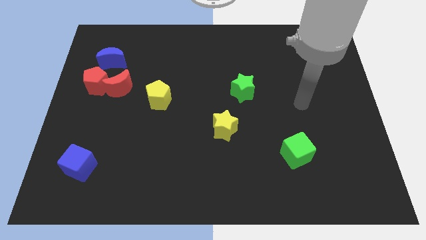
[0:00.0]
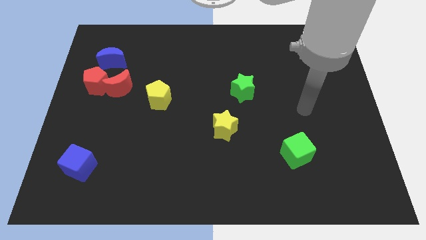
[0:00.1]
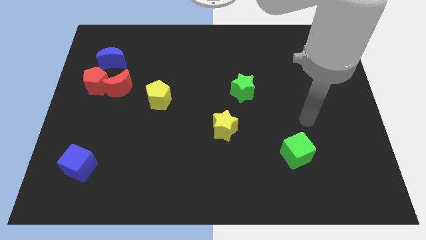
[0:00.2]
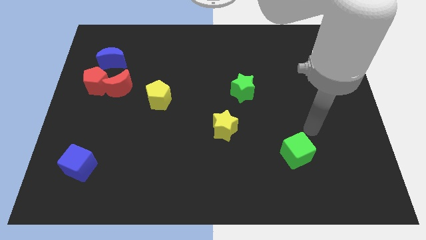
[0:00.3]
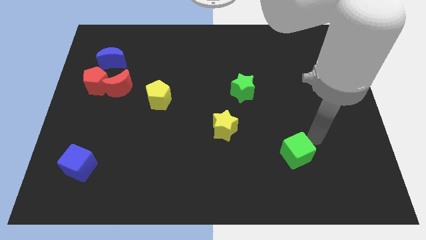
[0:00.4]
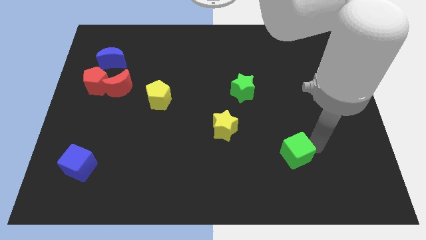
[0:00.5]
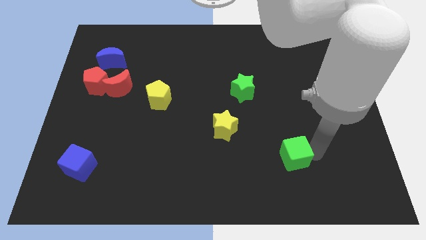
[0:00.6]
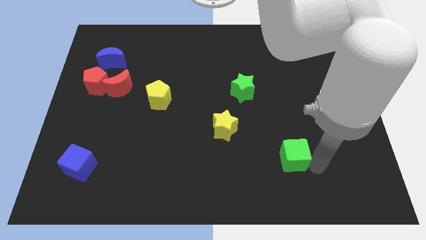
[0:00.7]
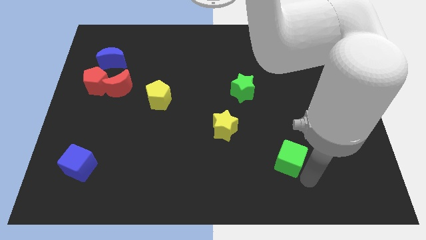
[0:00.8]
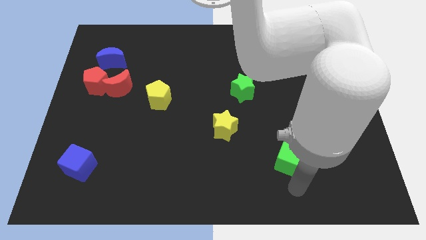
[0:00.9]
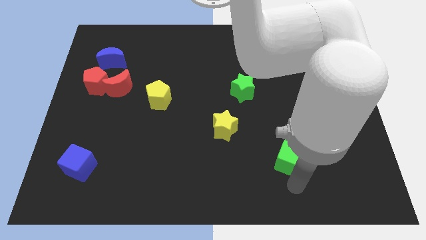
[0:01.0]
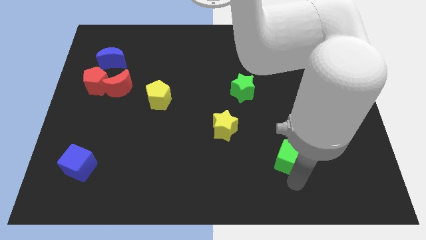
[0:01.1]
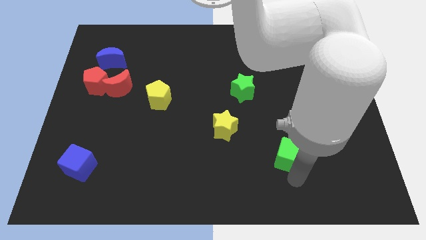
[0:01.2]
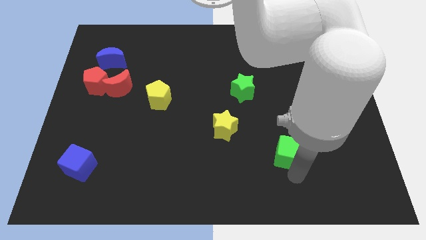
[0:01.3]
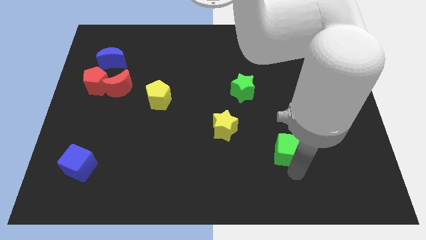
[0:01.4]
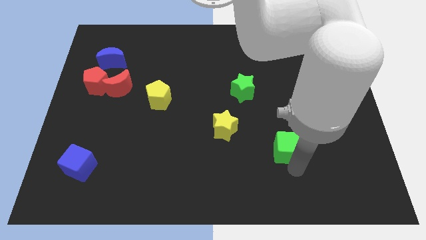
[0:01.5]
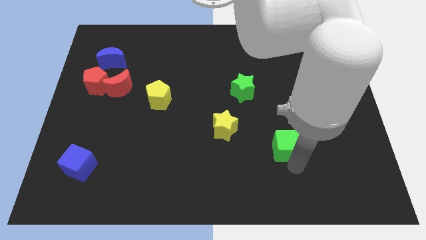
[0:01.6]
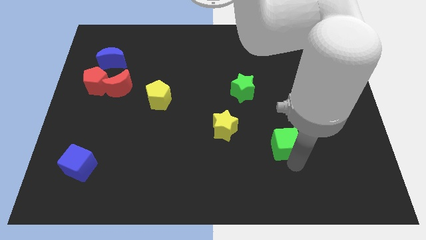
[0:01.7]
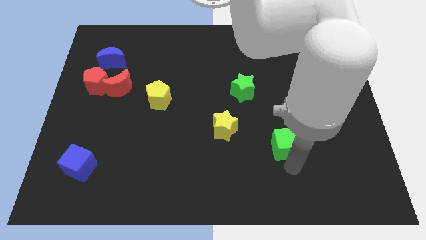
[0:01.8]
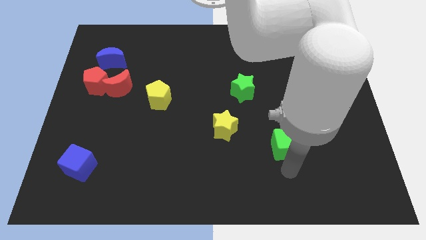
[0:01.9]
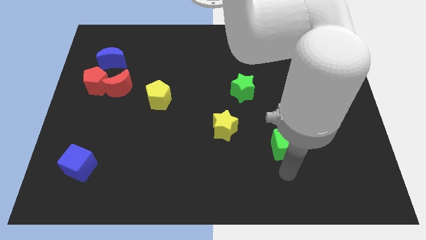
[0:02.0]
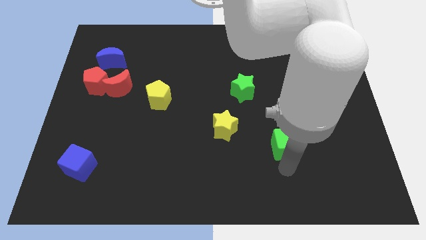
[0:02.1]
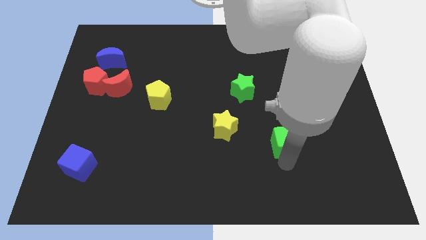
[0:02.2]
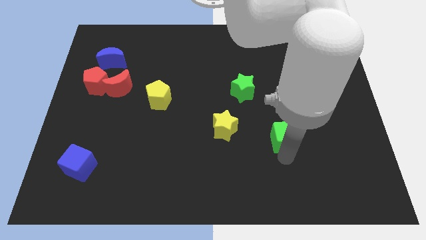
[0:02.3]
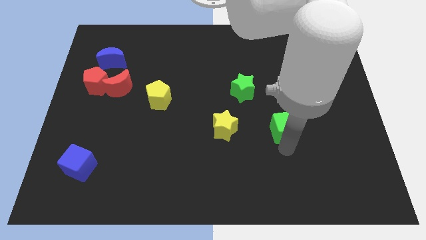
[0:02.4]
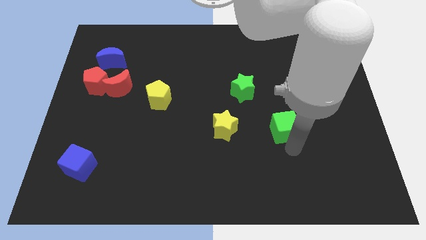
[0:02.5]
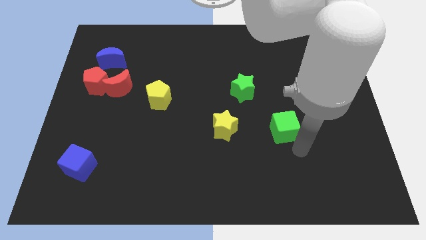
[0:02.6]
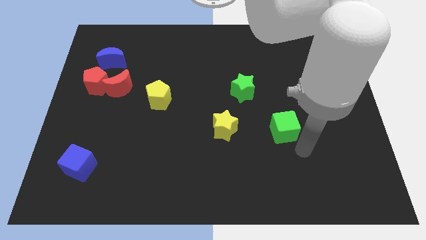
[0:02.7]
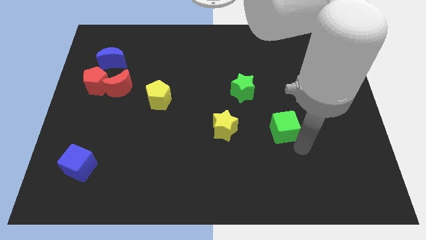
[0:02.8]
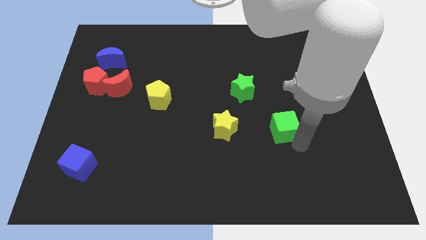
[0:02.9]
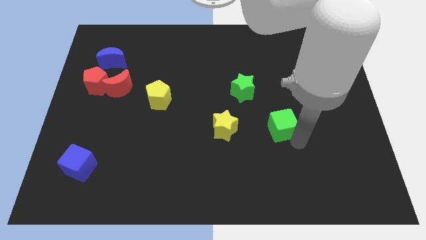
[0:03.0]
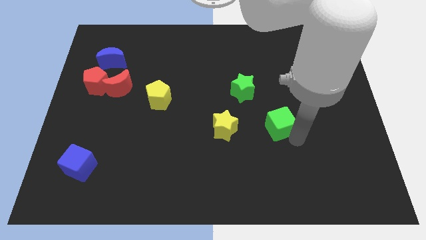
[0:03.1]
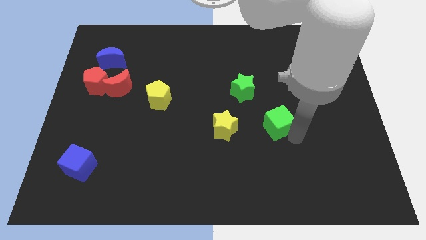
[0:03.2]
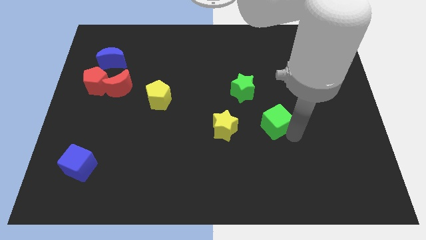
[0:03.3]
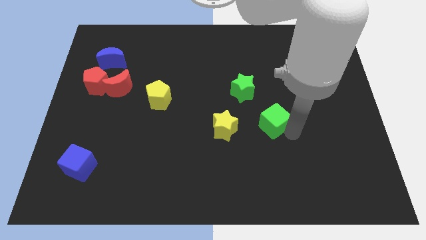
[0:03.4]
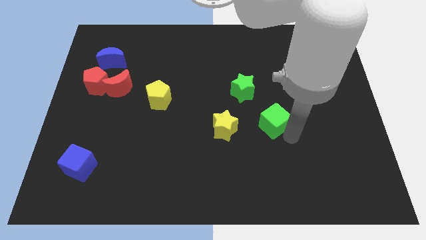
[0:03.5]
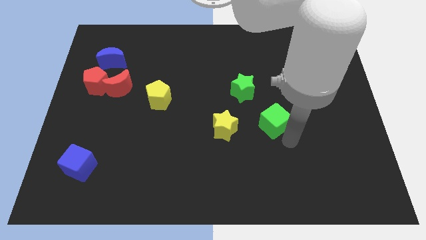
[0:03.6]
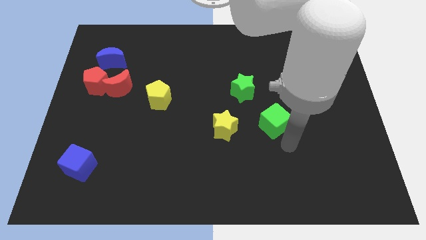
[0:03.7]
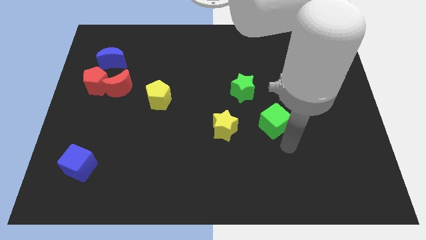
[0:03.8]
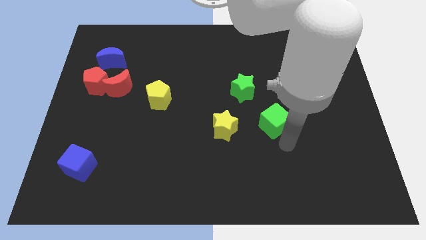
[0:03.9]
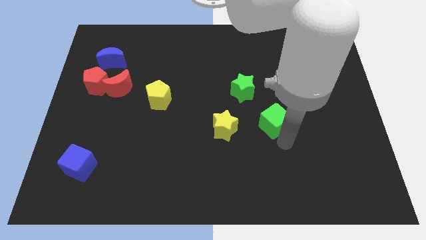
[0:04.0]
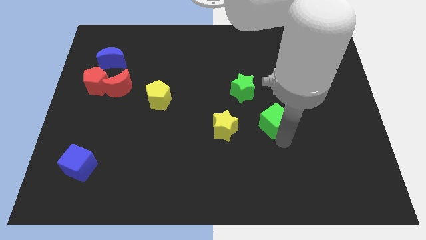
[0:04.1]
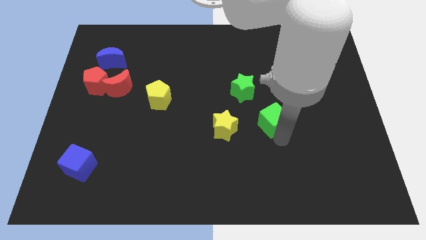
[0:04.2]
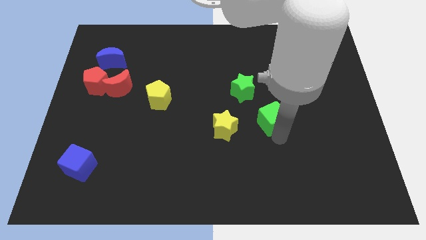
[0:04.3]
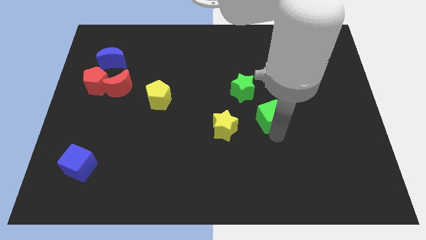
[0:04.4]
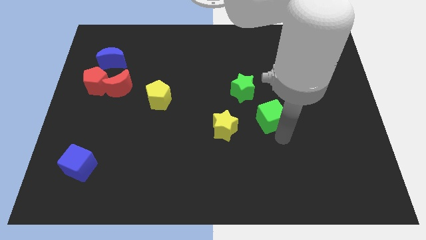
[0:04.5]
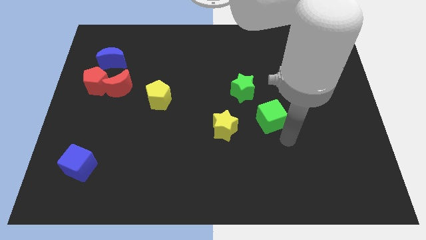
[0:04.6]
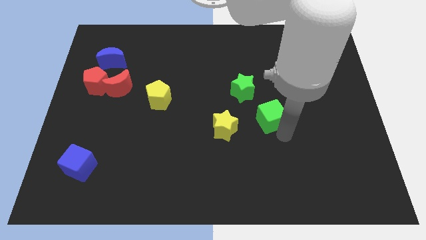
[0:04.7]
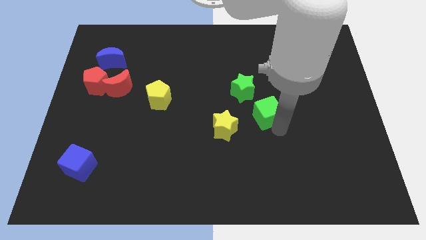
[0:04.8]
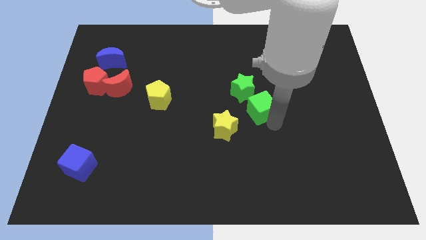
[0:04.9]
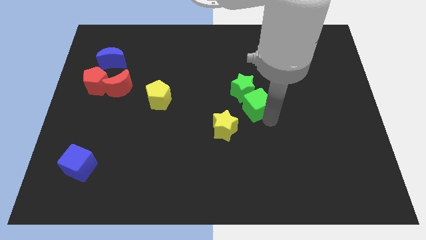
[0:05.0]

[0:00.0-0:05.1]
push the green cube to the green star

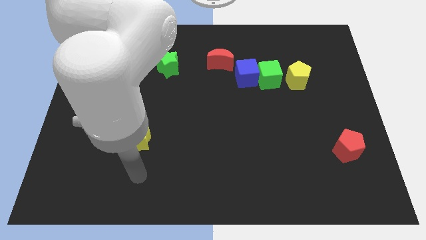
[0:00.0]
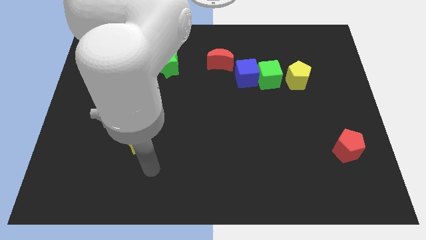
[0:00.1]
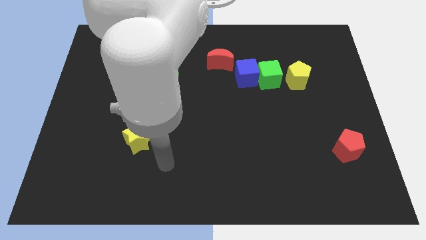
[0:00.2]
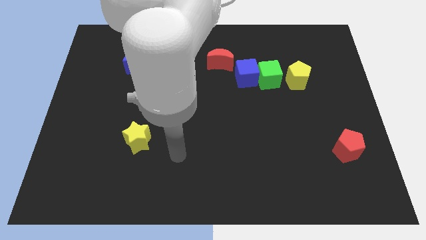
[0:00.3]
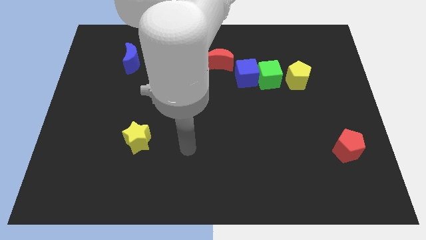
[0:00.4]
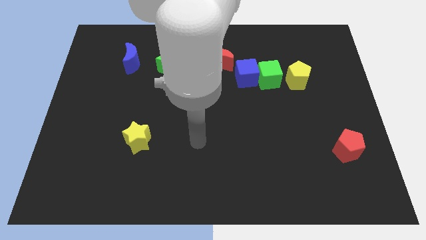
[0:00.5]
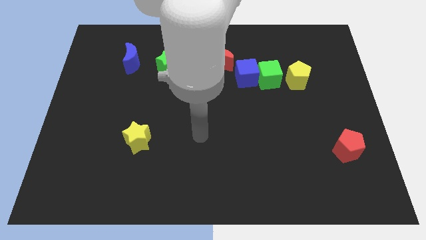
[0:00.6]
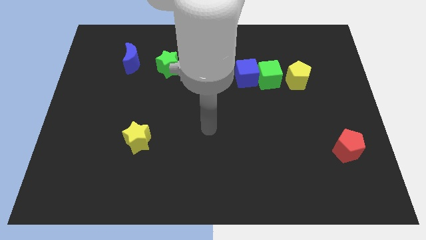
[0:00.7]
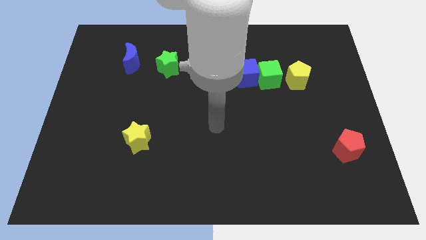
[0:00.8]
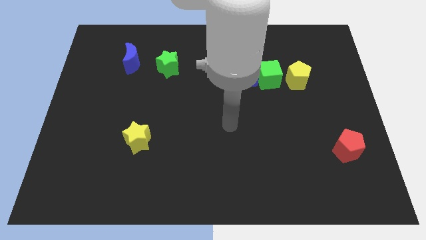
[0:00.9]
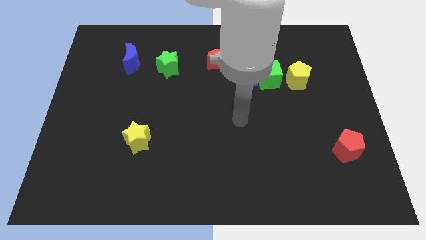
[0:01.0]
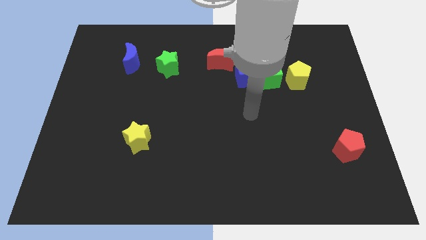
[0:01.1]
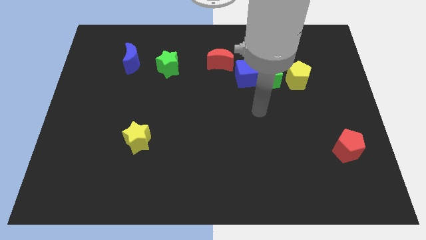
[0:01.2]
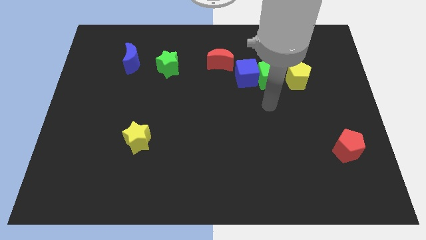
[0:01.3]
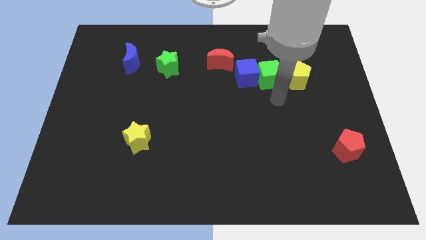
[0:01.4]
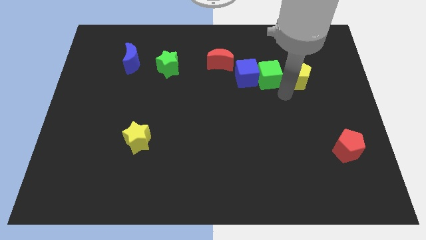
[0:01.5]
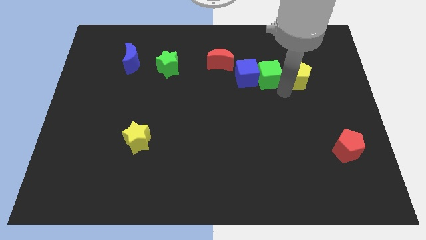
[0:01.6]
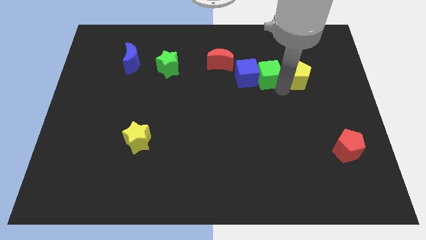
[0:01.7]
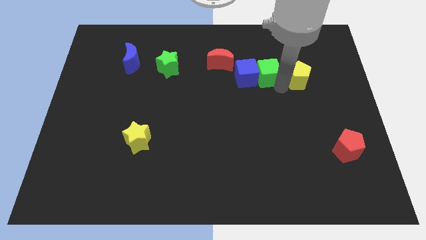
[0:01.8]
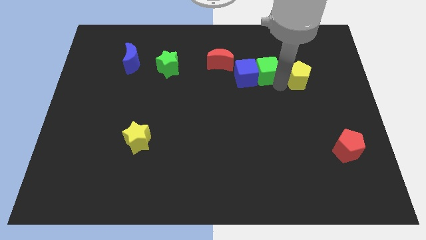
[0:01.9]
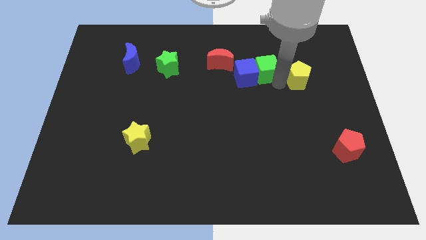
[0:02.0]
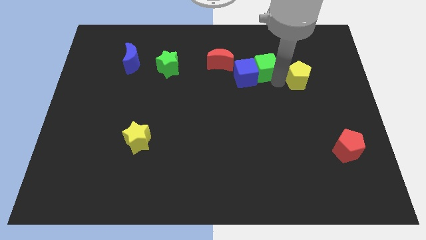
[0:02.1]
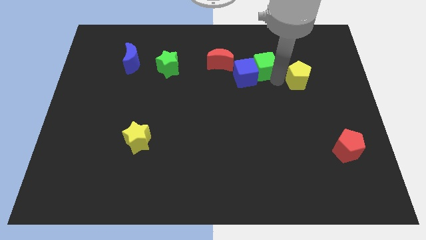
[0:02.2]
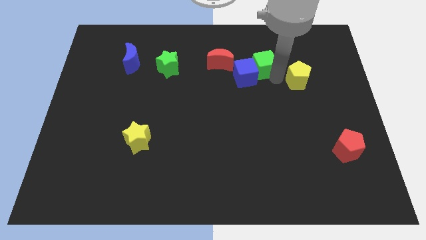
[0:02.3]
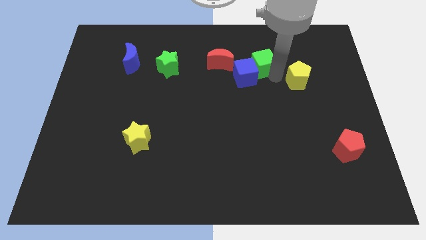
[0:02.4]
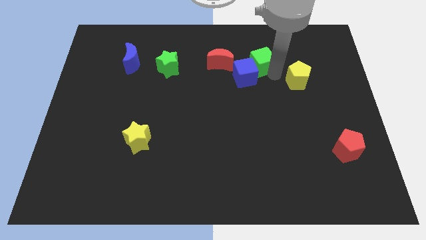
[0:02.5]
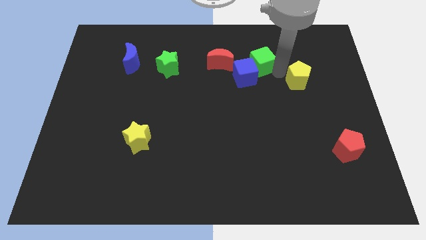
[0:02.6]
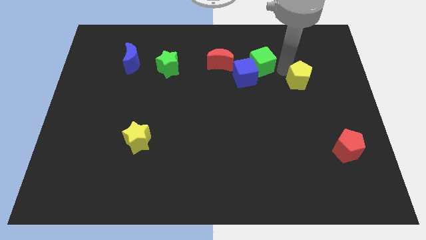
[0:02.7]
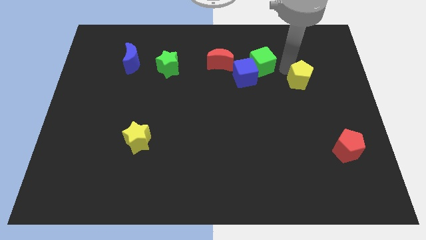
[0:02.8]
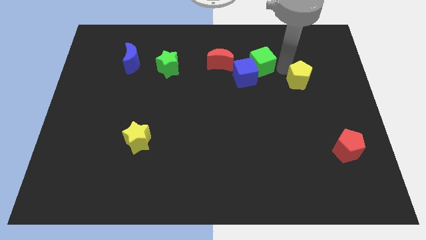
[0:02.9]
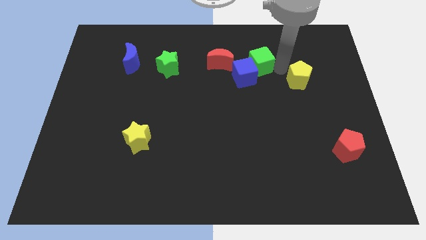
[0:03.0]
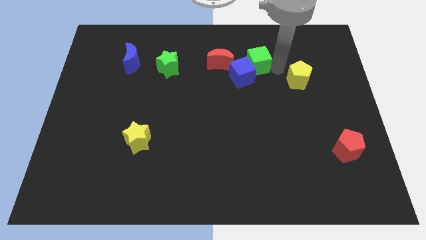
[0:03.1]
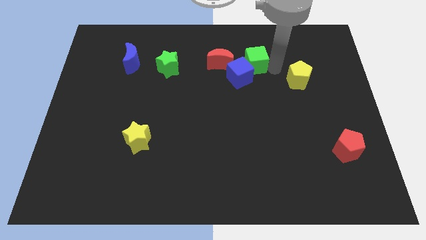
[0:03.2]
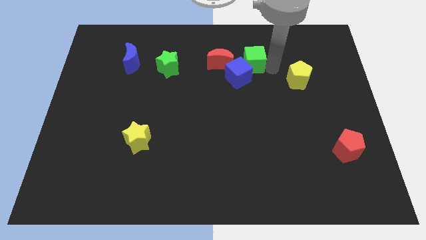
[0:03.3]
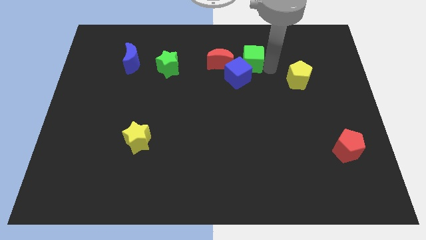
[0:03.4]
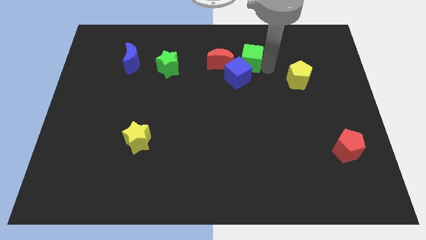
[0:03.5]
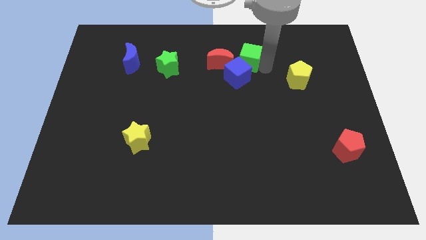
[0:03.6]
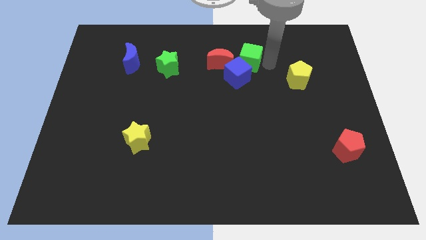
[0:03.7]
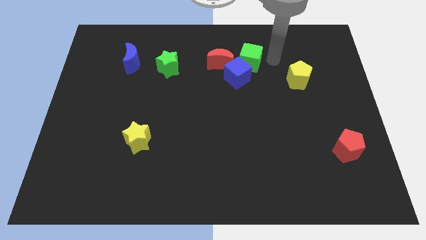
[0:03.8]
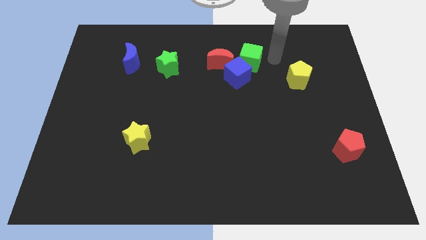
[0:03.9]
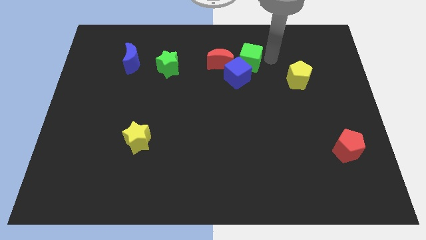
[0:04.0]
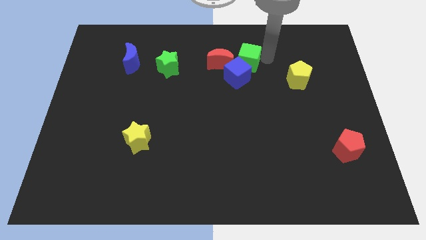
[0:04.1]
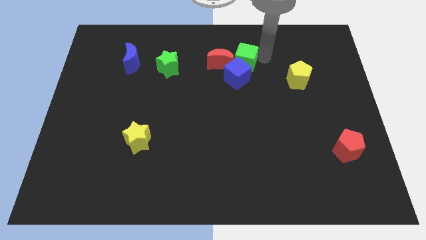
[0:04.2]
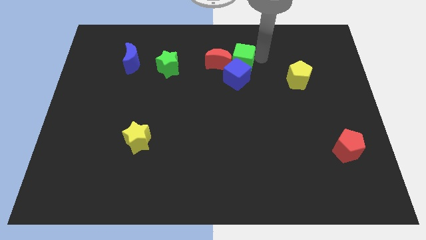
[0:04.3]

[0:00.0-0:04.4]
slide the green cube next to the red moon
